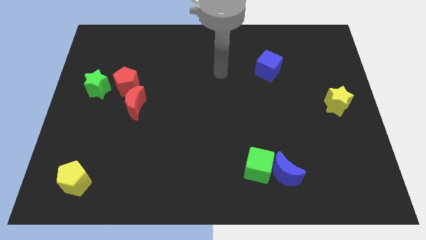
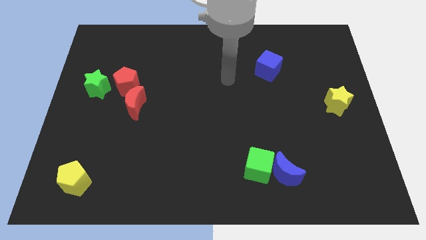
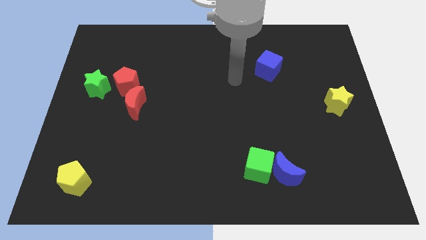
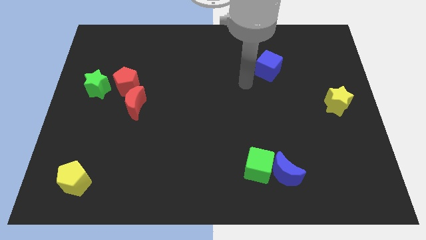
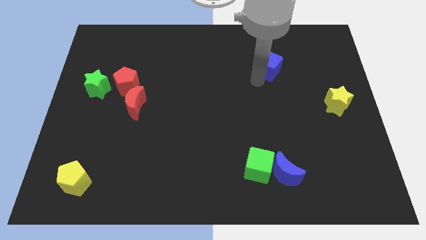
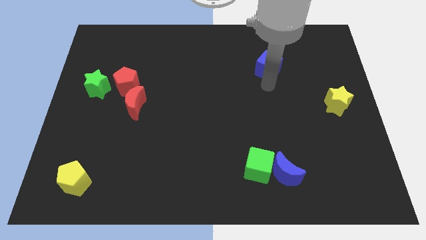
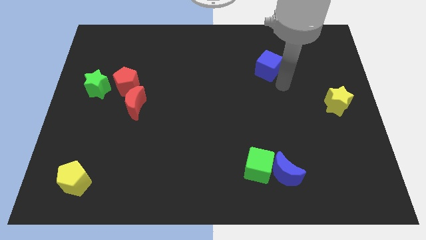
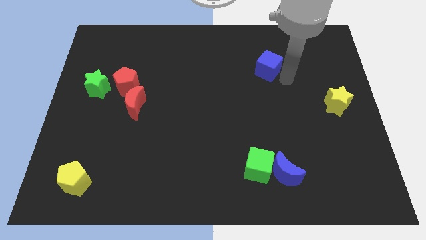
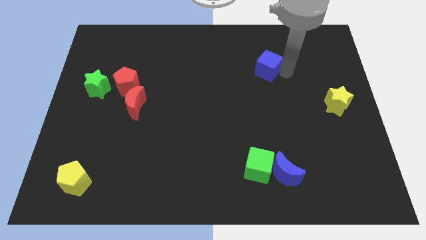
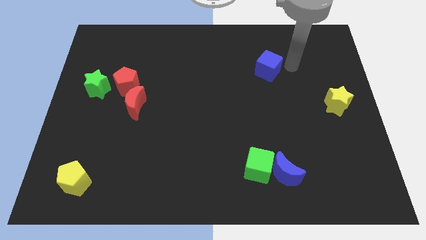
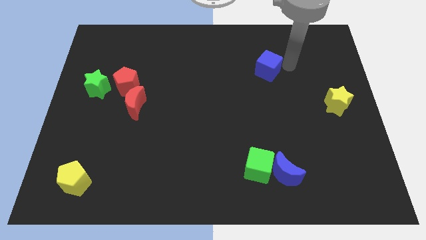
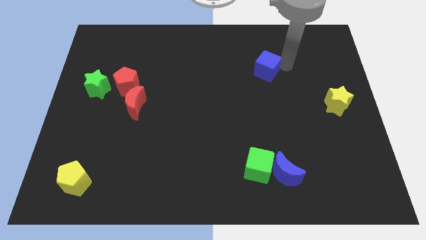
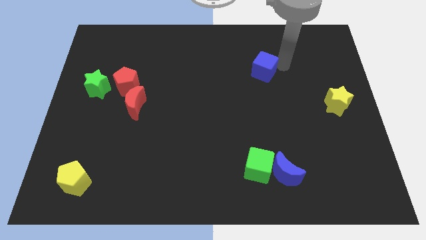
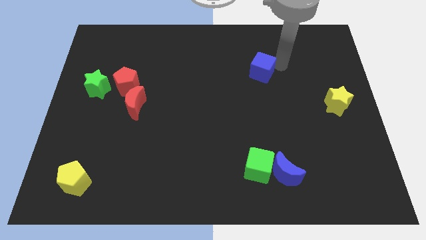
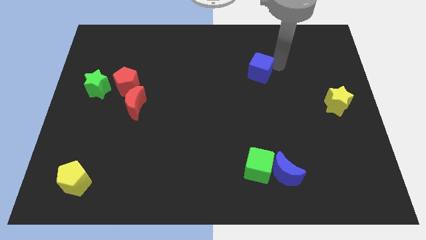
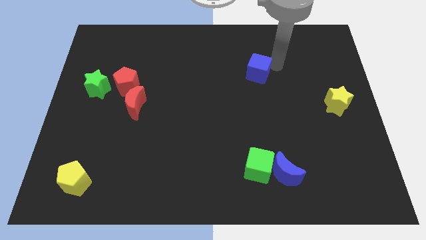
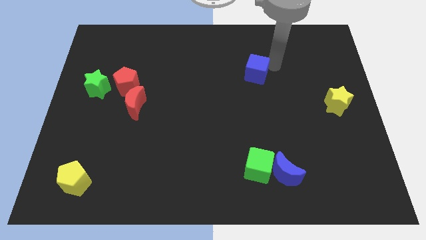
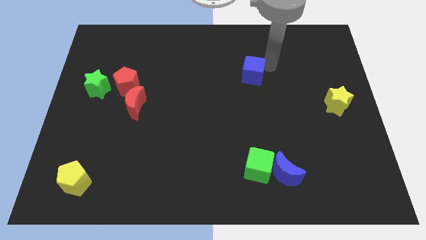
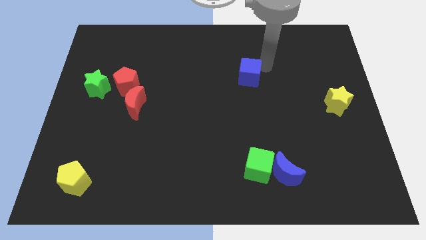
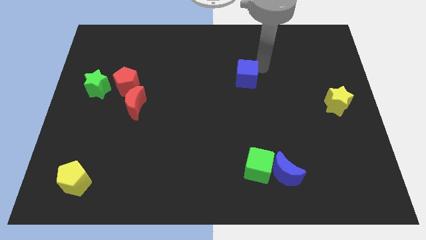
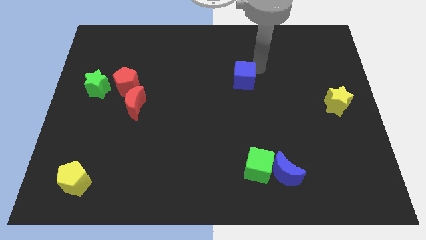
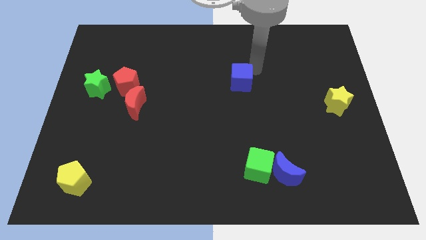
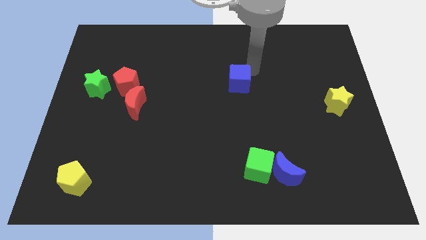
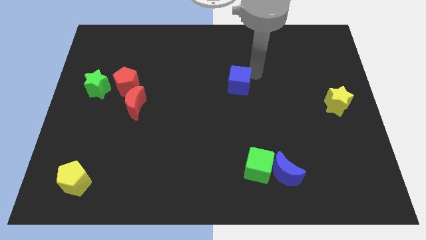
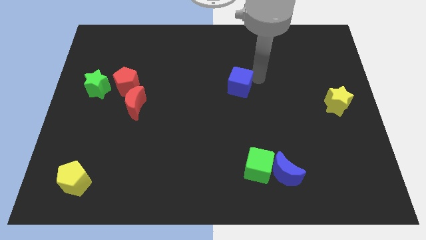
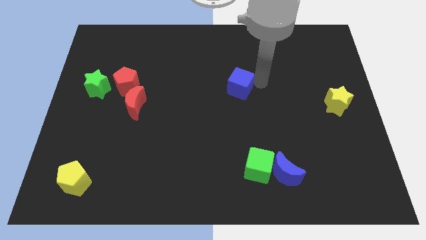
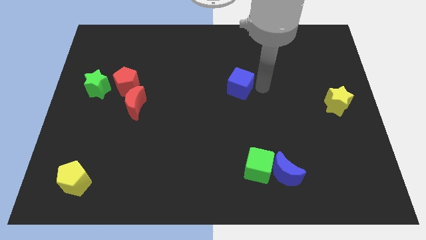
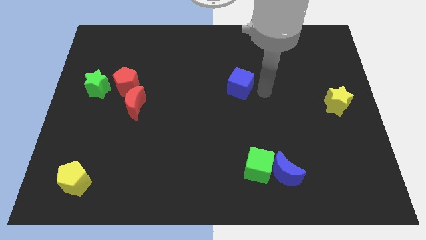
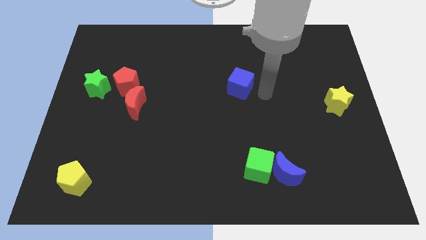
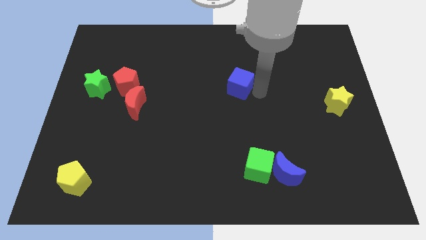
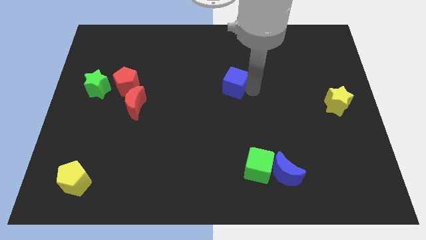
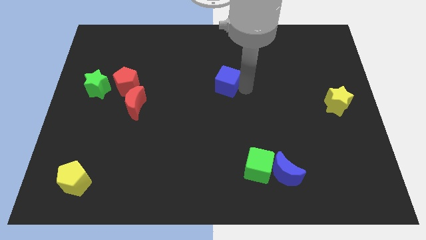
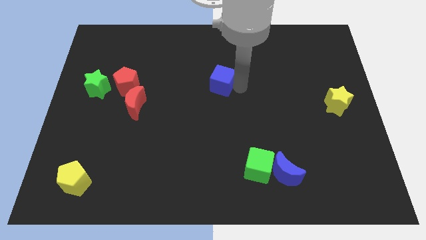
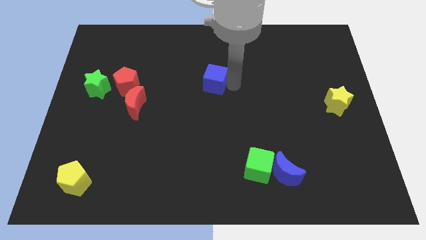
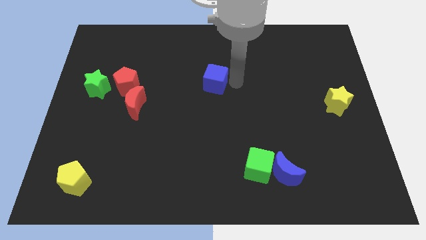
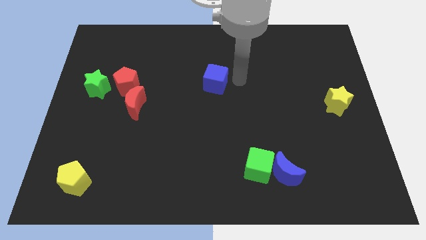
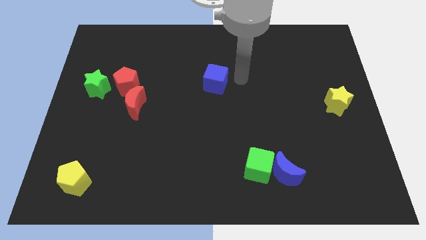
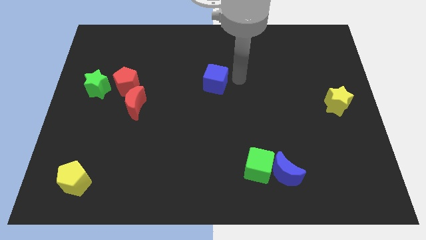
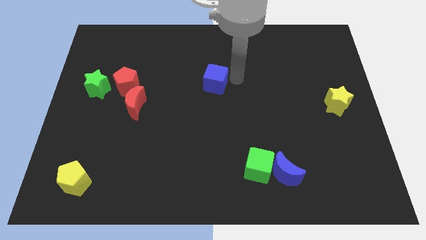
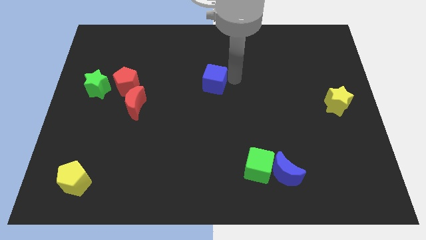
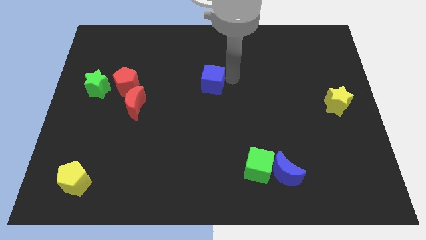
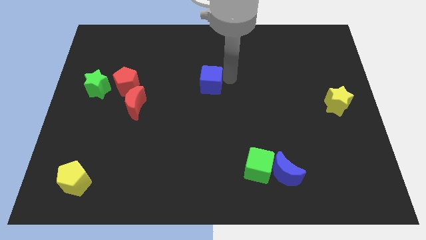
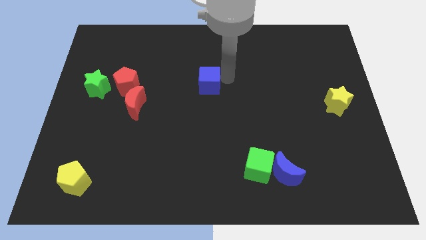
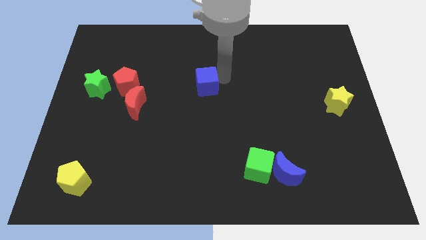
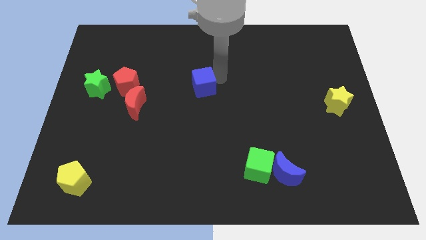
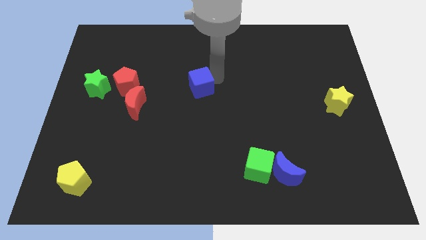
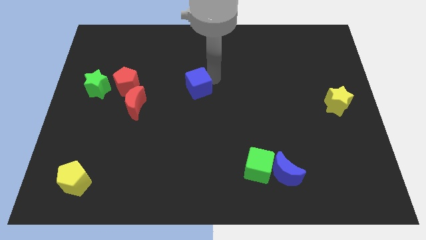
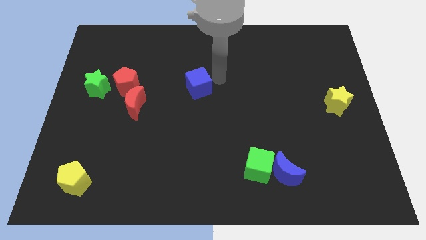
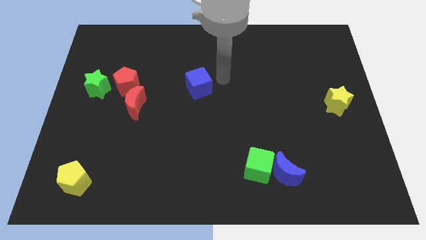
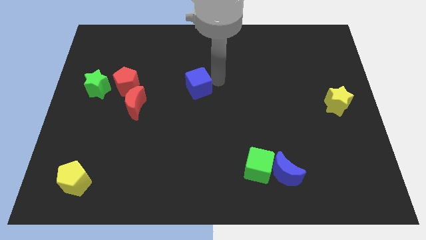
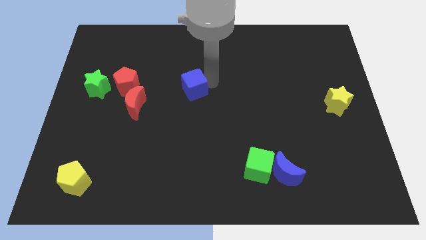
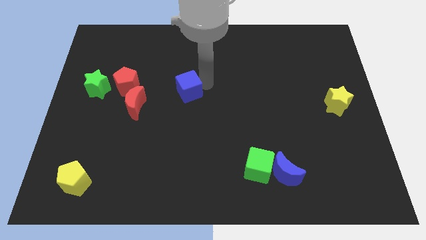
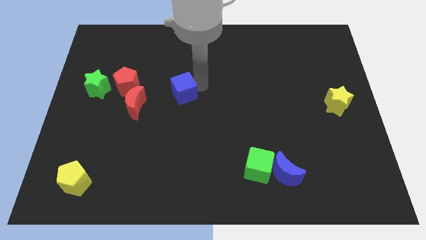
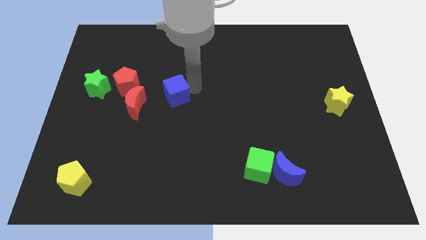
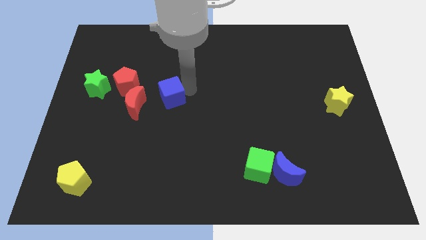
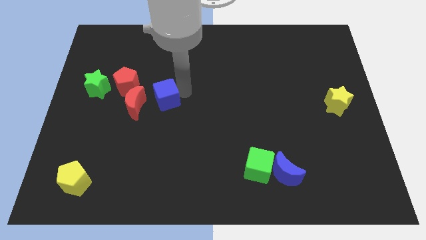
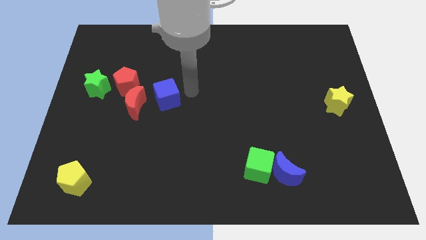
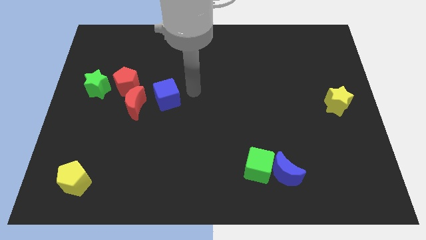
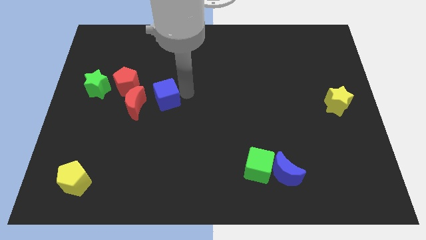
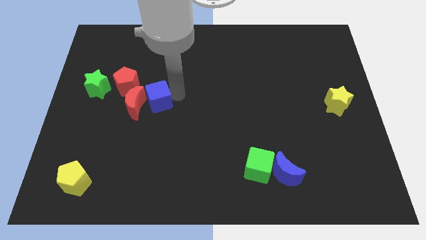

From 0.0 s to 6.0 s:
slide the blue cube to the red moon

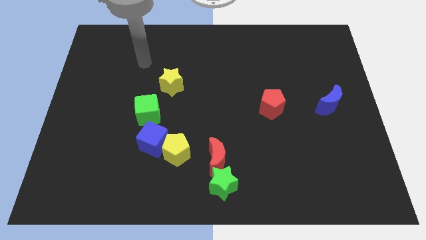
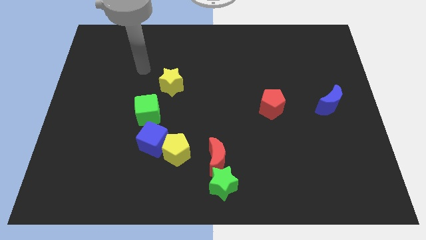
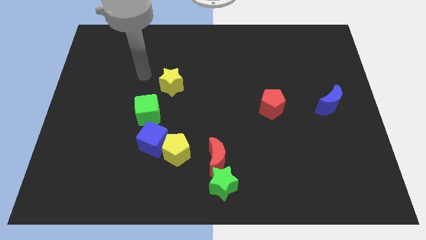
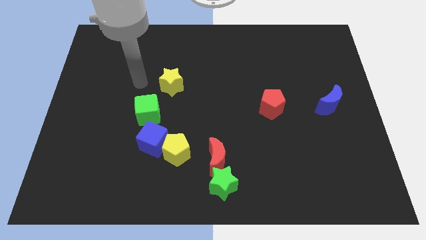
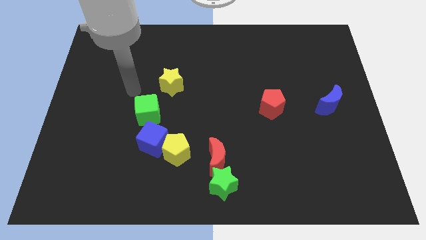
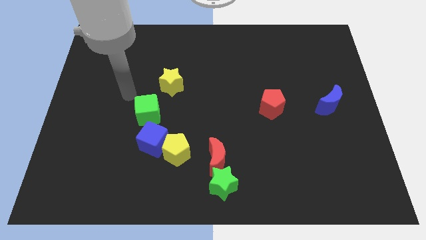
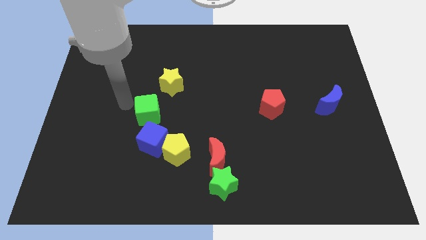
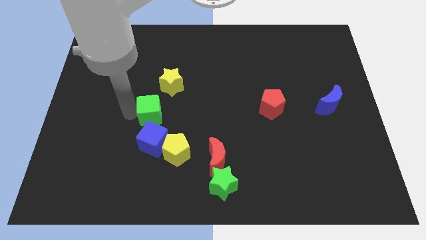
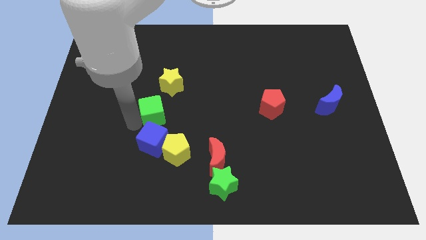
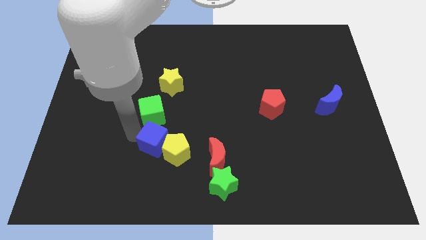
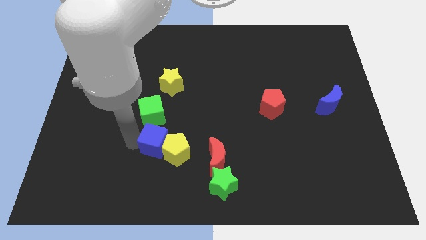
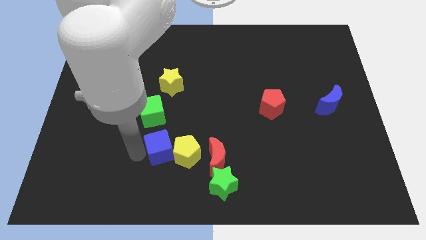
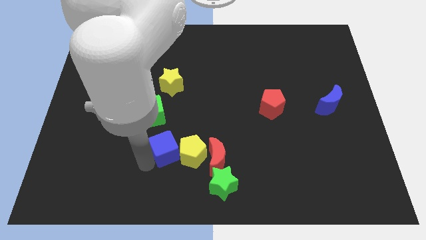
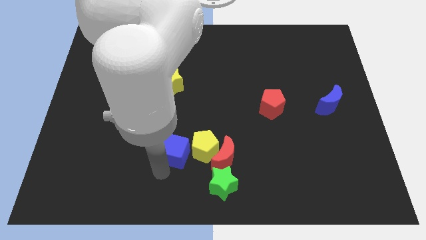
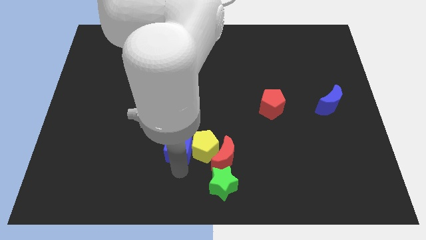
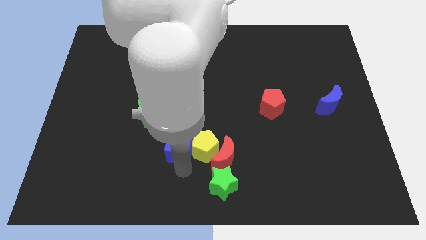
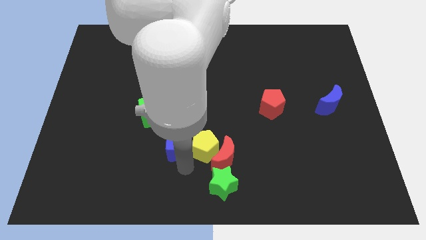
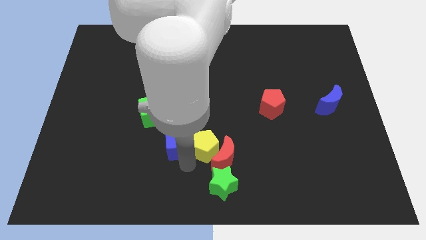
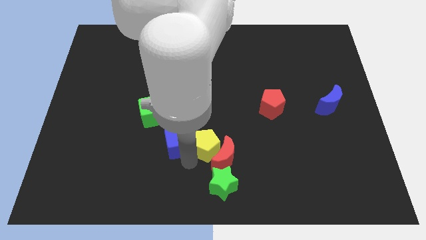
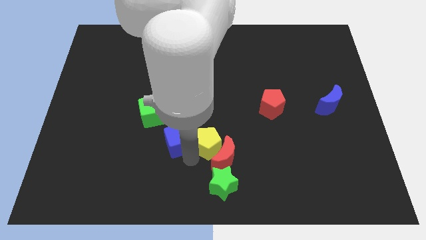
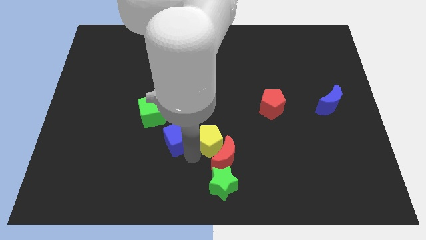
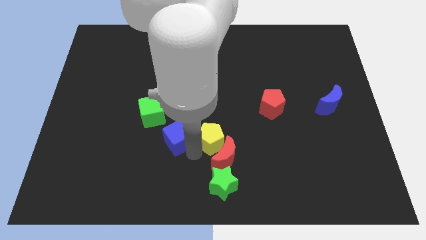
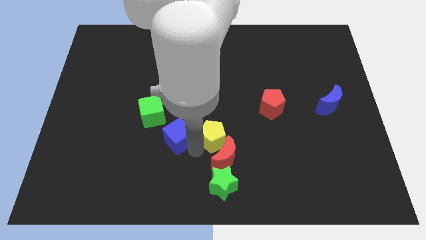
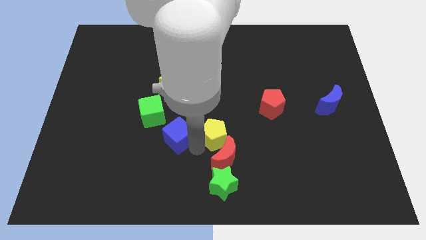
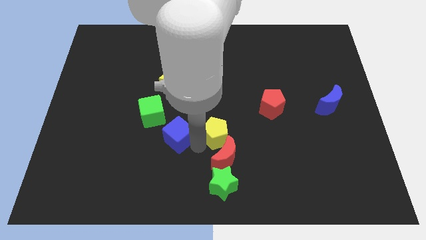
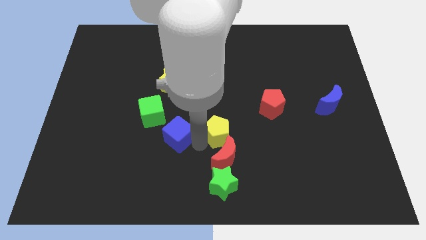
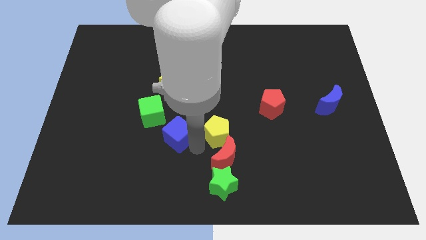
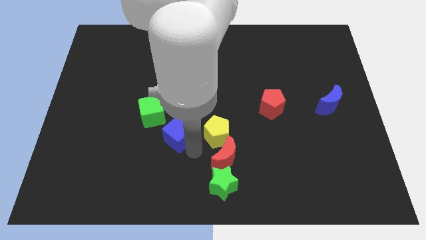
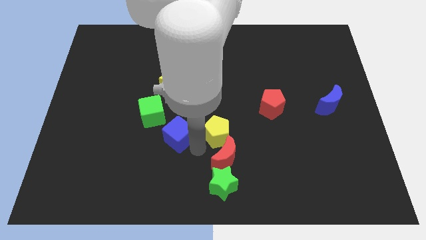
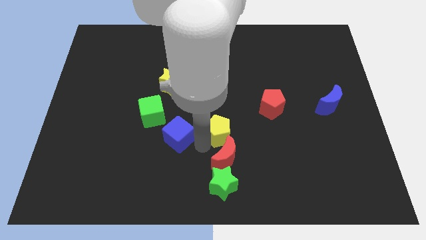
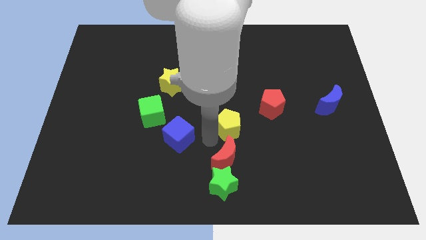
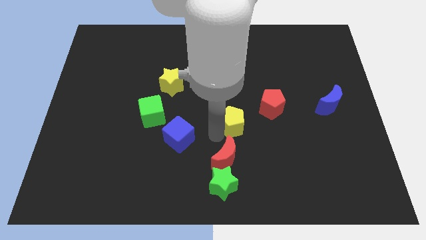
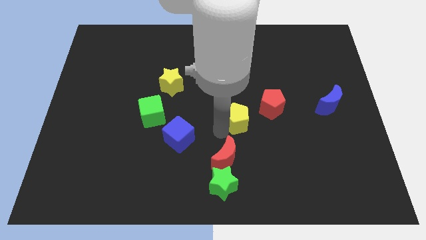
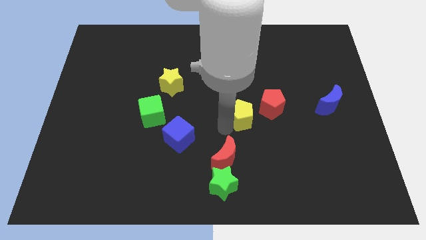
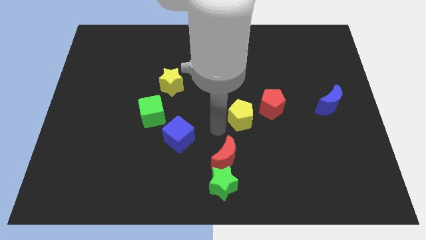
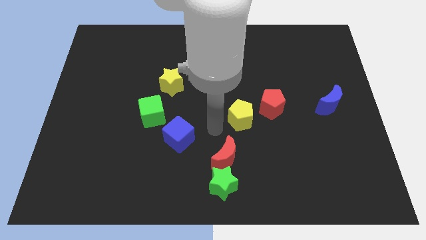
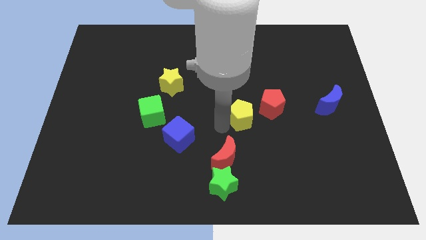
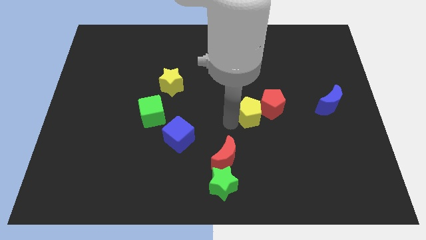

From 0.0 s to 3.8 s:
slide the yellow pentagon towards the red pentagon
